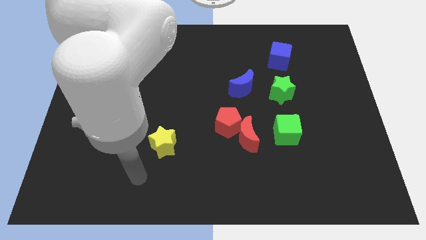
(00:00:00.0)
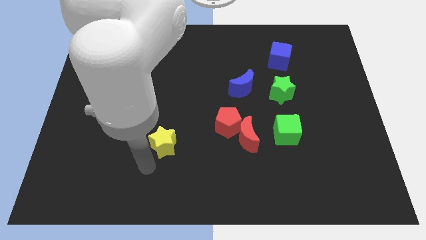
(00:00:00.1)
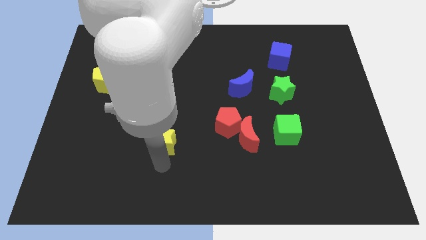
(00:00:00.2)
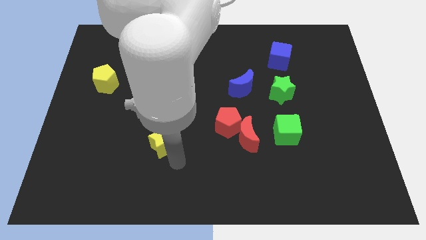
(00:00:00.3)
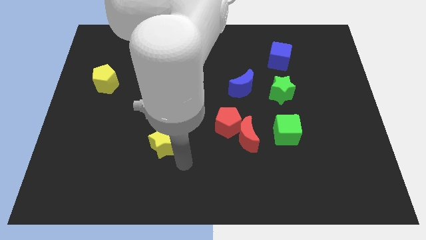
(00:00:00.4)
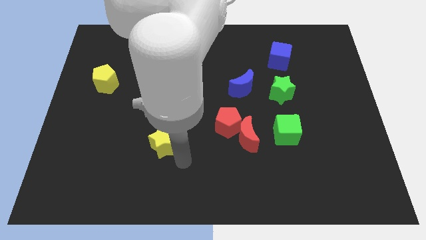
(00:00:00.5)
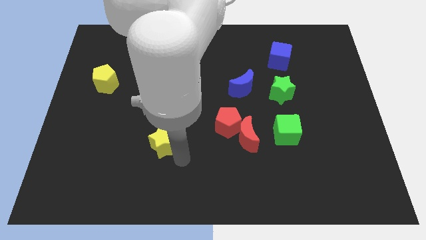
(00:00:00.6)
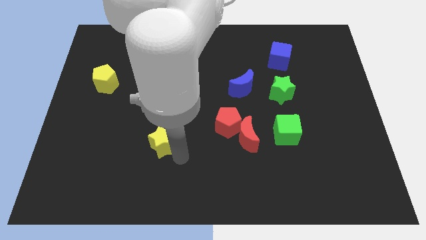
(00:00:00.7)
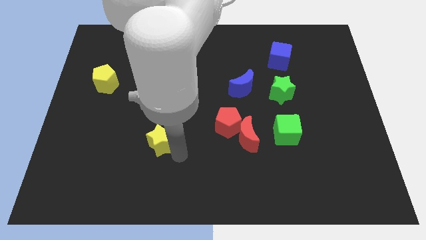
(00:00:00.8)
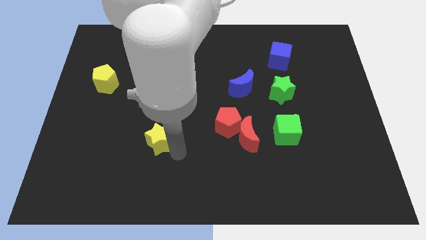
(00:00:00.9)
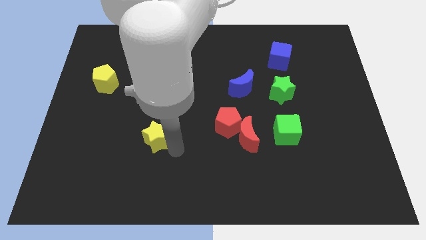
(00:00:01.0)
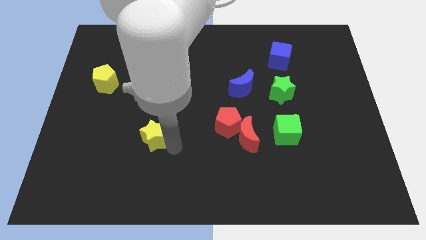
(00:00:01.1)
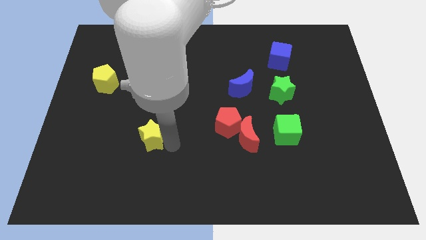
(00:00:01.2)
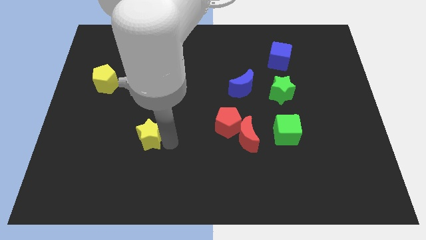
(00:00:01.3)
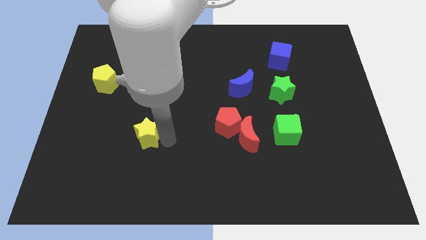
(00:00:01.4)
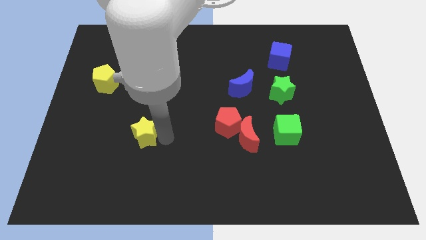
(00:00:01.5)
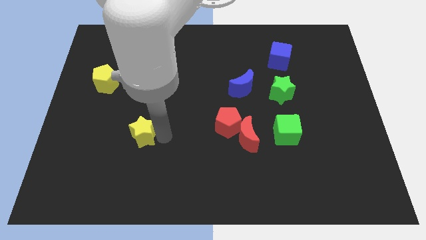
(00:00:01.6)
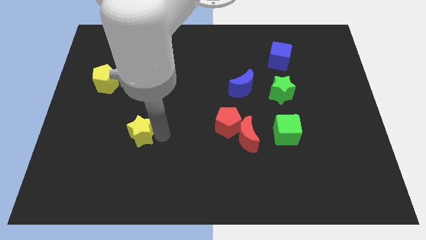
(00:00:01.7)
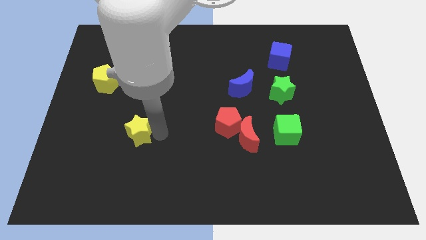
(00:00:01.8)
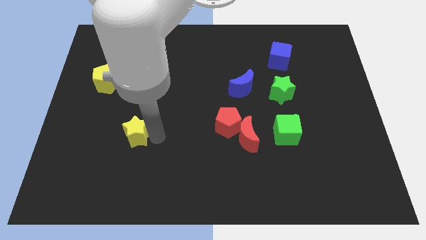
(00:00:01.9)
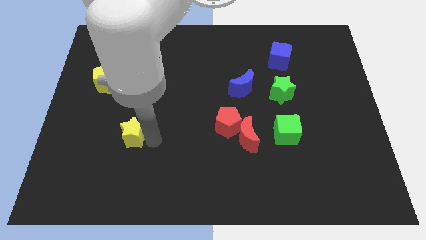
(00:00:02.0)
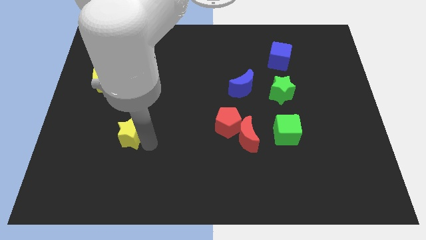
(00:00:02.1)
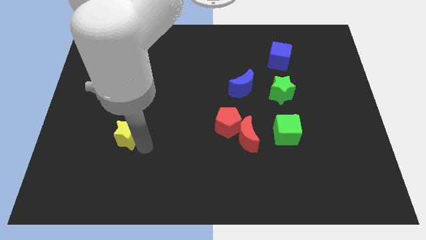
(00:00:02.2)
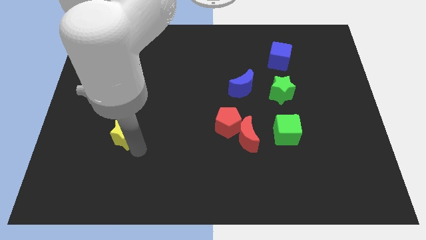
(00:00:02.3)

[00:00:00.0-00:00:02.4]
push the yellow star somewhat upwards and left diagonally

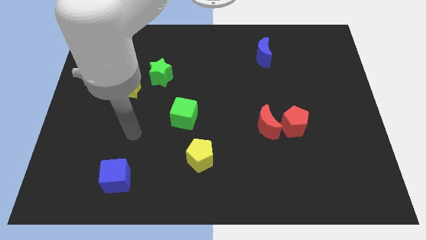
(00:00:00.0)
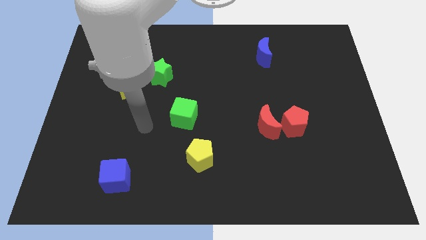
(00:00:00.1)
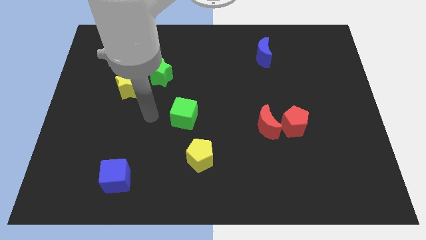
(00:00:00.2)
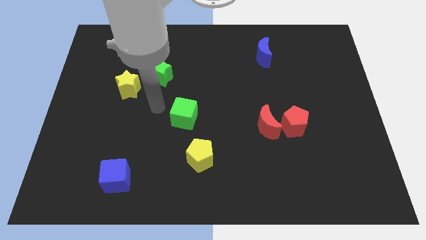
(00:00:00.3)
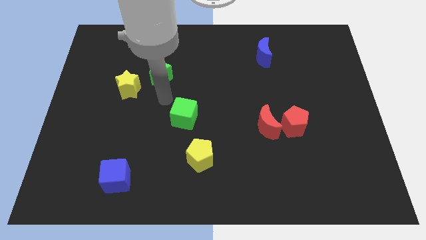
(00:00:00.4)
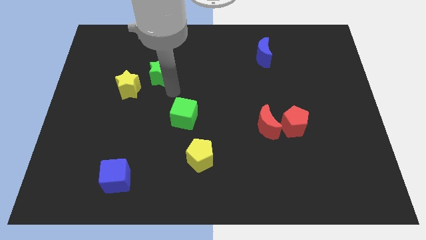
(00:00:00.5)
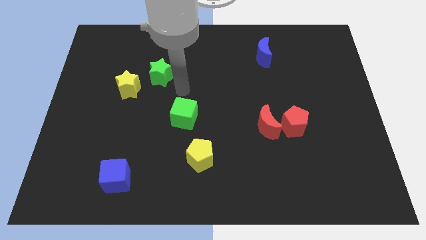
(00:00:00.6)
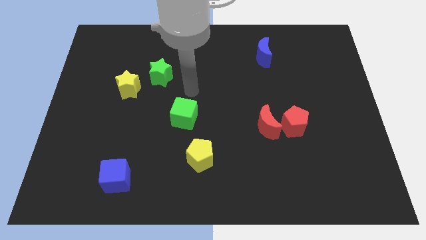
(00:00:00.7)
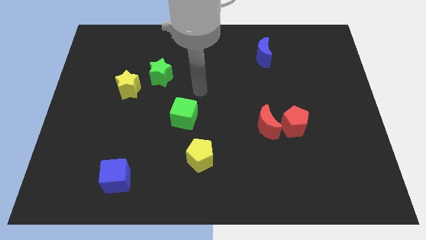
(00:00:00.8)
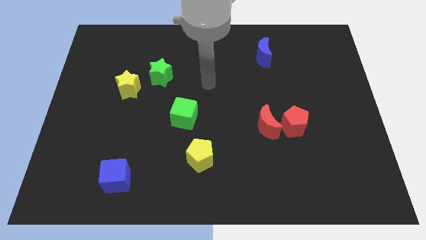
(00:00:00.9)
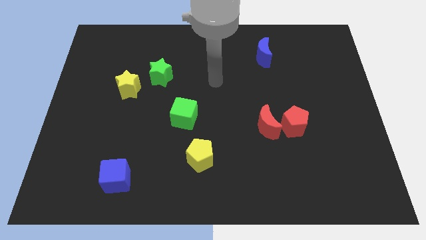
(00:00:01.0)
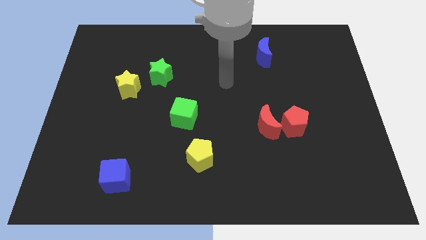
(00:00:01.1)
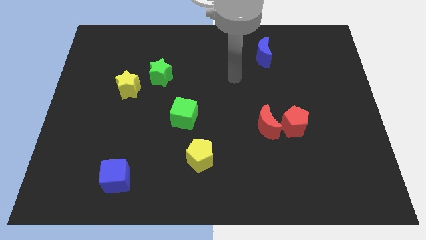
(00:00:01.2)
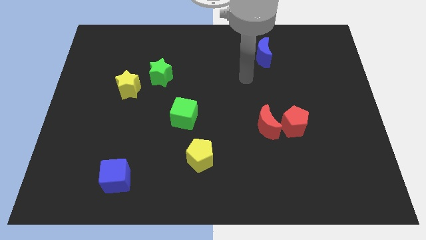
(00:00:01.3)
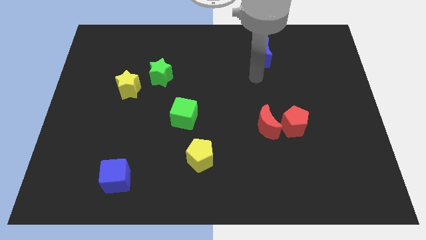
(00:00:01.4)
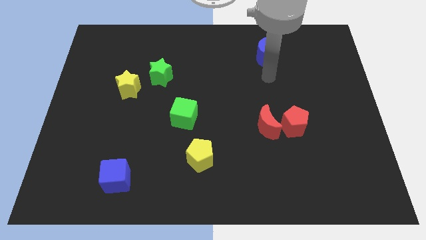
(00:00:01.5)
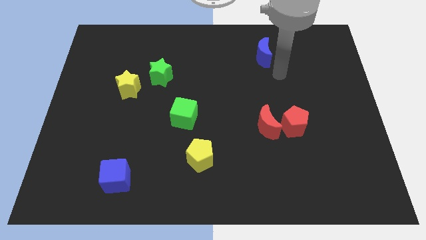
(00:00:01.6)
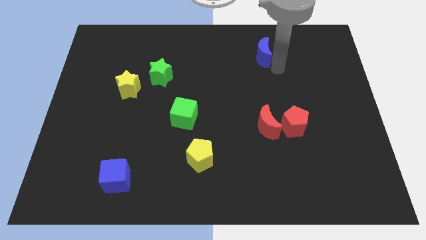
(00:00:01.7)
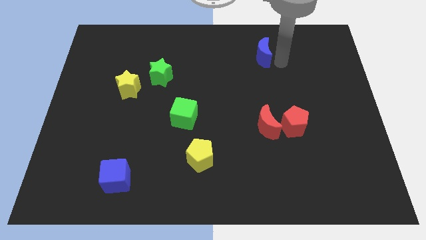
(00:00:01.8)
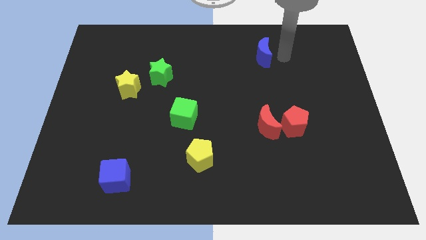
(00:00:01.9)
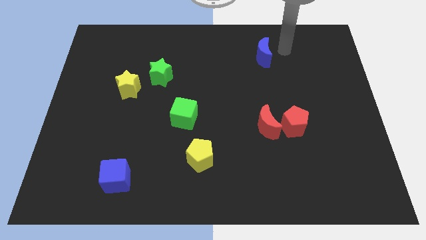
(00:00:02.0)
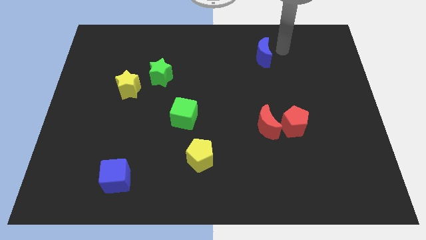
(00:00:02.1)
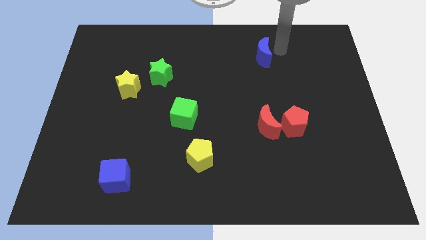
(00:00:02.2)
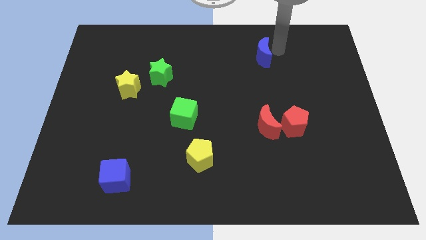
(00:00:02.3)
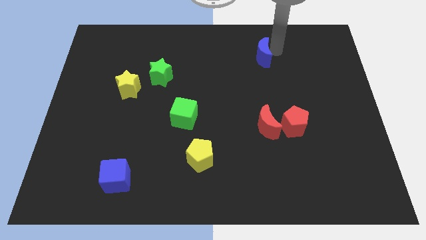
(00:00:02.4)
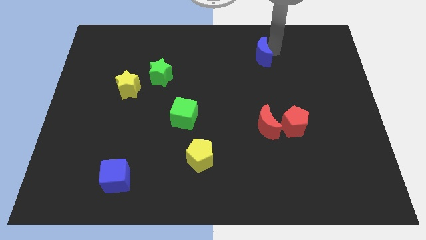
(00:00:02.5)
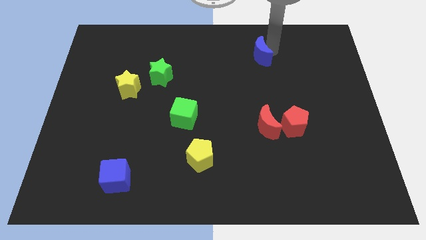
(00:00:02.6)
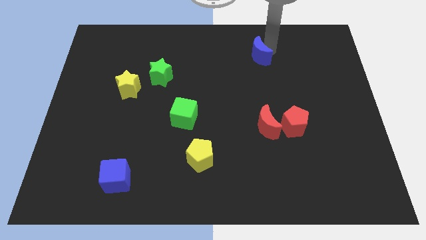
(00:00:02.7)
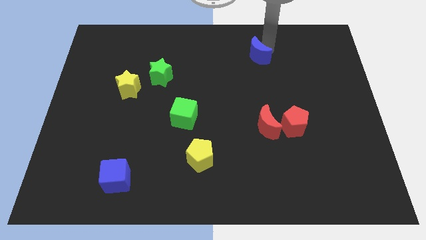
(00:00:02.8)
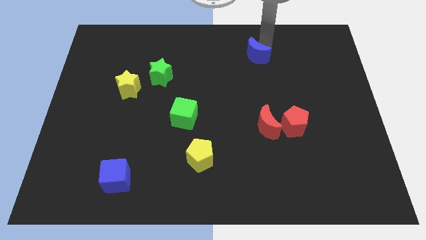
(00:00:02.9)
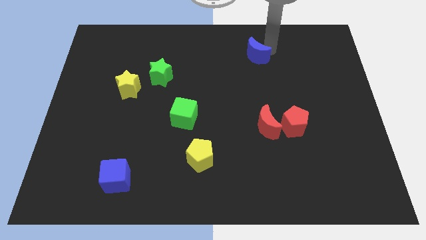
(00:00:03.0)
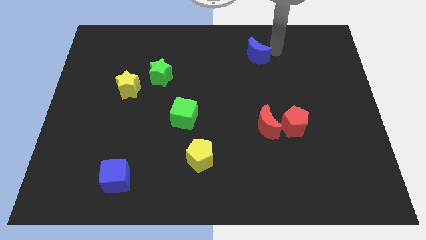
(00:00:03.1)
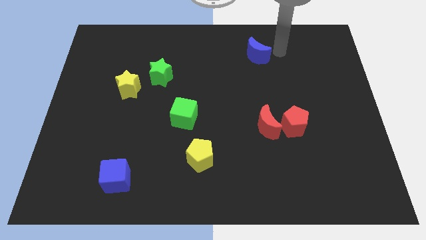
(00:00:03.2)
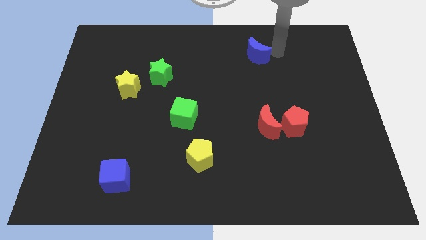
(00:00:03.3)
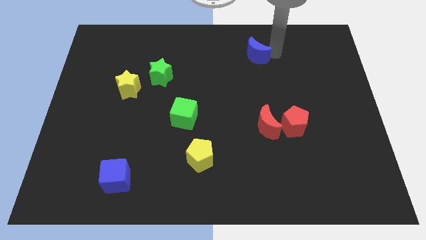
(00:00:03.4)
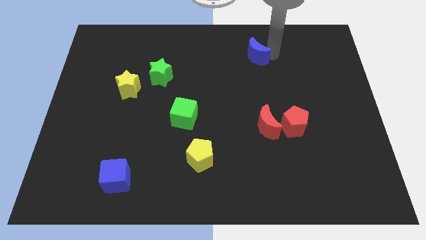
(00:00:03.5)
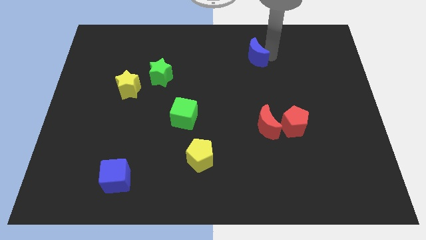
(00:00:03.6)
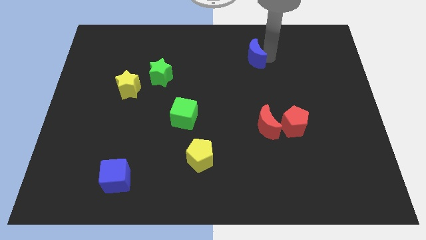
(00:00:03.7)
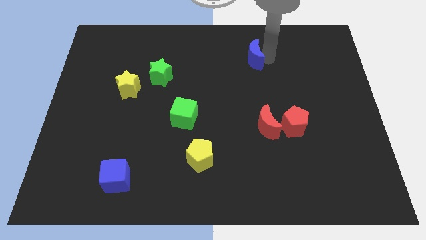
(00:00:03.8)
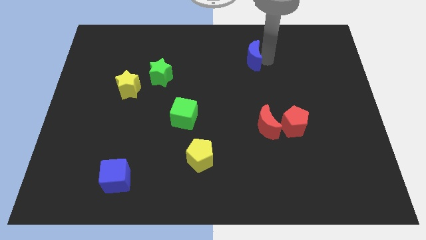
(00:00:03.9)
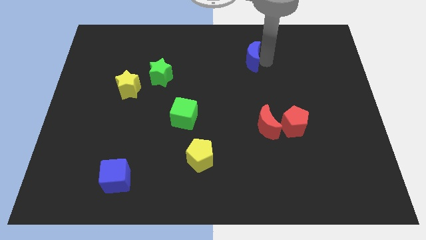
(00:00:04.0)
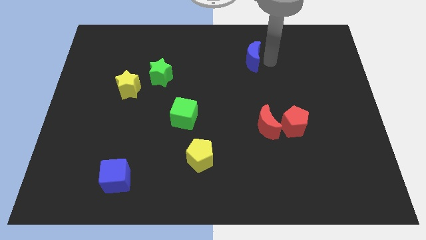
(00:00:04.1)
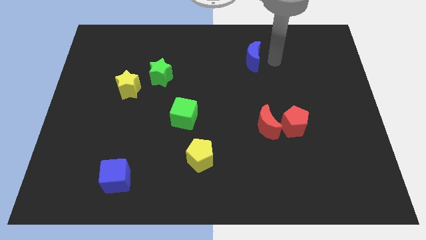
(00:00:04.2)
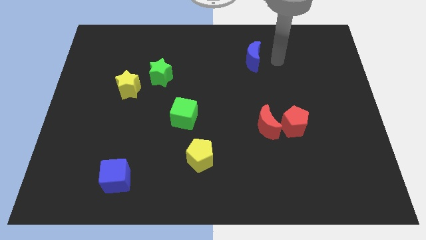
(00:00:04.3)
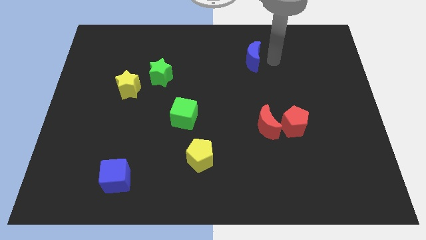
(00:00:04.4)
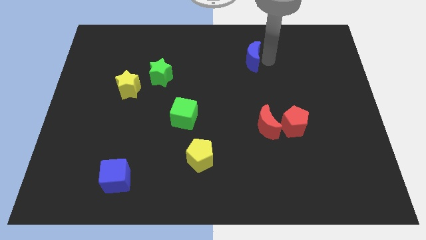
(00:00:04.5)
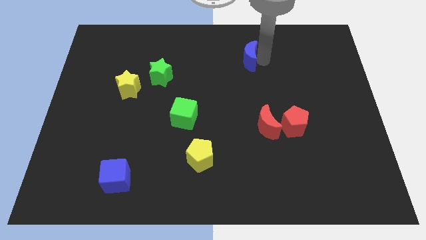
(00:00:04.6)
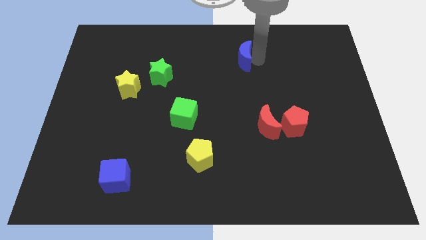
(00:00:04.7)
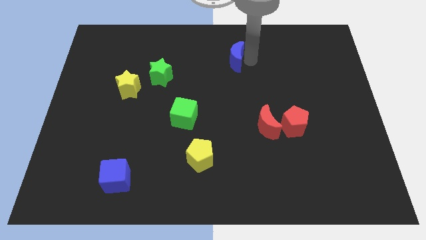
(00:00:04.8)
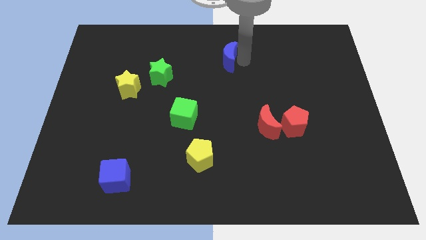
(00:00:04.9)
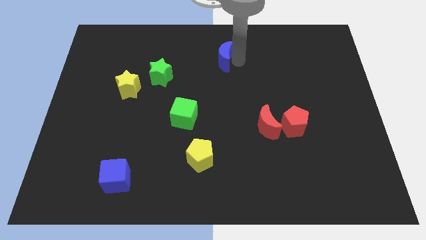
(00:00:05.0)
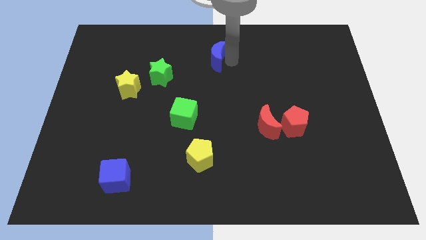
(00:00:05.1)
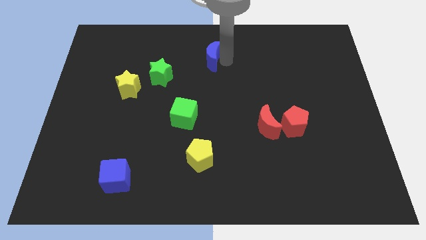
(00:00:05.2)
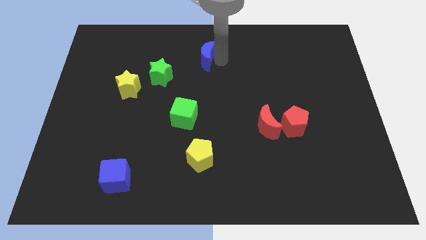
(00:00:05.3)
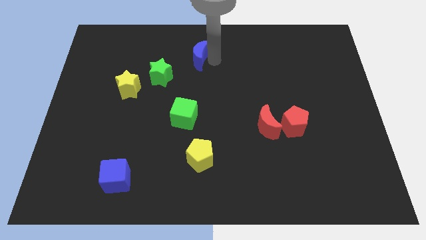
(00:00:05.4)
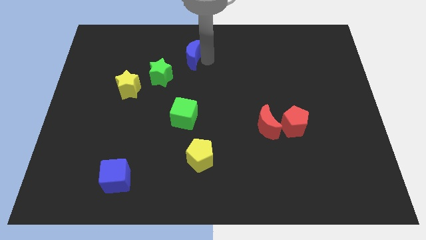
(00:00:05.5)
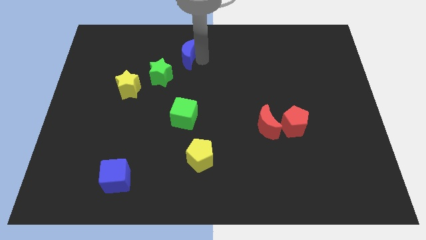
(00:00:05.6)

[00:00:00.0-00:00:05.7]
move the blue moon left
